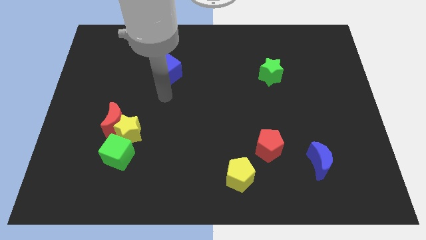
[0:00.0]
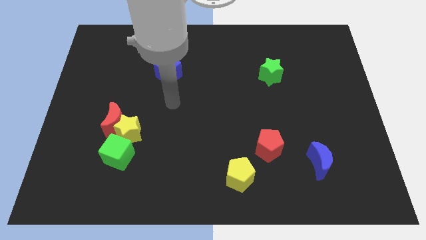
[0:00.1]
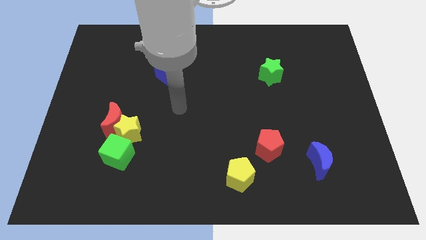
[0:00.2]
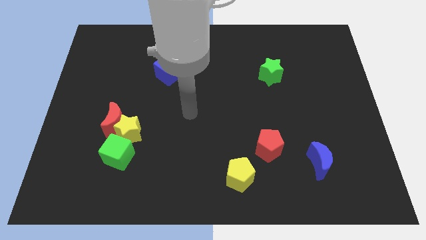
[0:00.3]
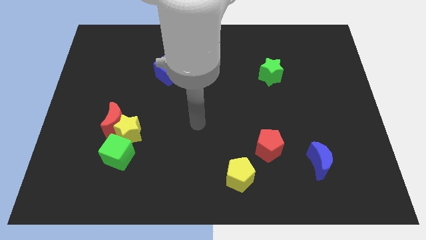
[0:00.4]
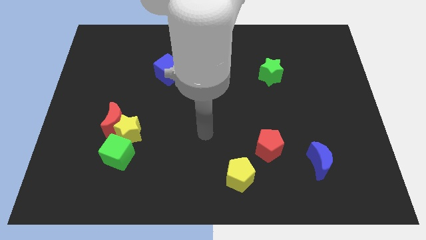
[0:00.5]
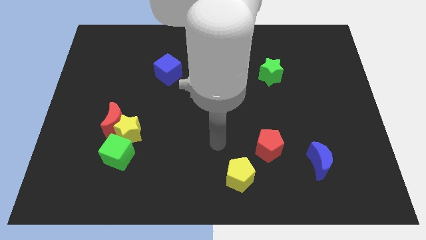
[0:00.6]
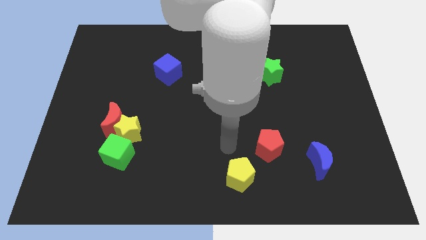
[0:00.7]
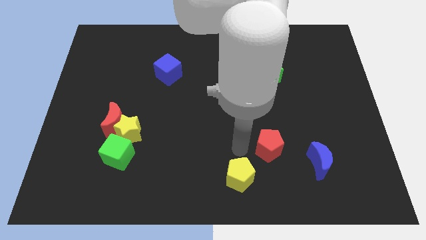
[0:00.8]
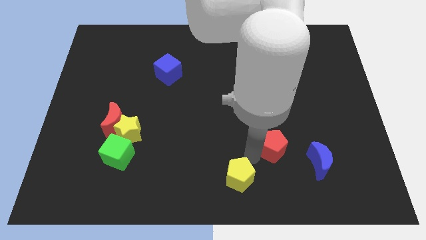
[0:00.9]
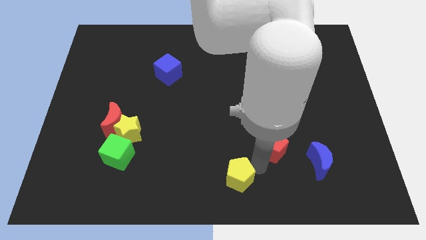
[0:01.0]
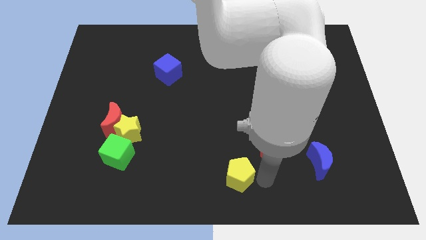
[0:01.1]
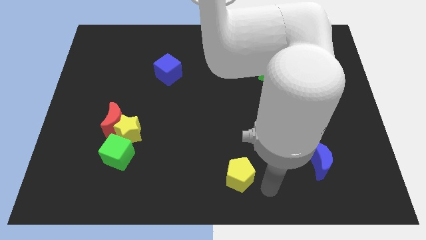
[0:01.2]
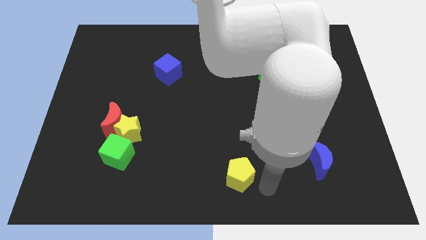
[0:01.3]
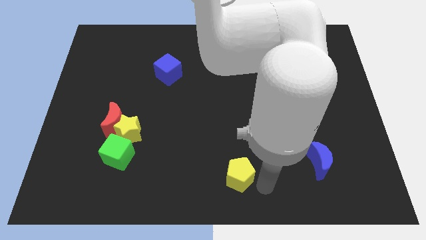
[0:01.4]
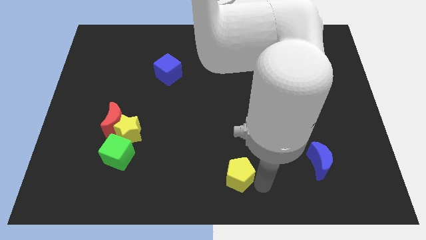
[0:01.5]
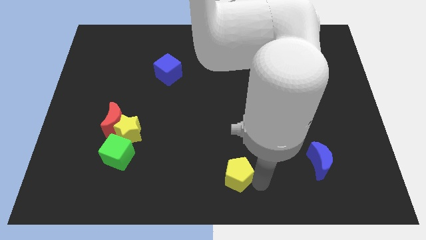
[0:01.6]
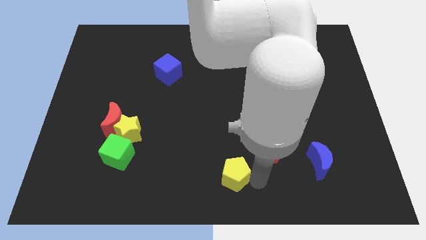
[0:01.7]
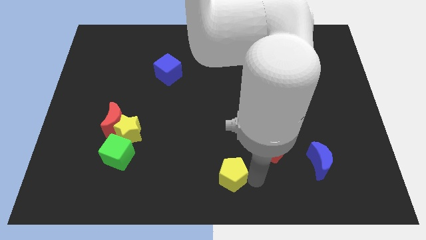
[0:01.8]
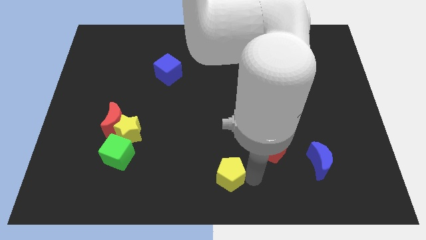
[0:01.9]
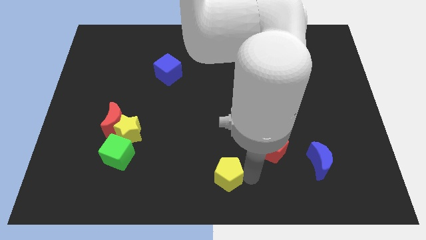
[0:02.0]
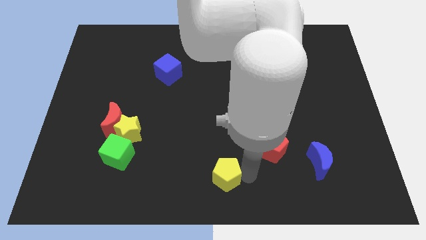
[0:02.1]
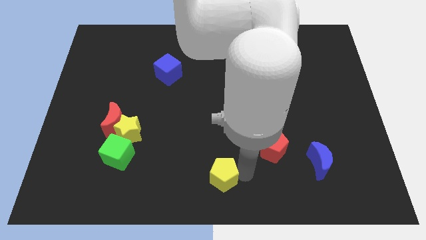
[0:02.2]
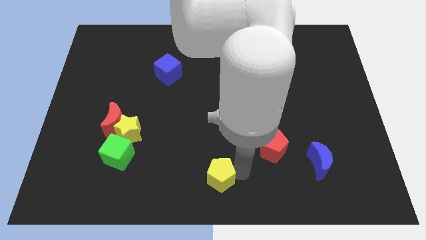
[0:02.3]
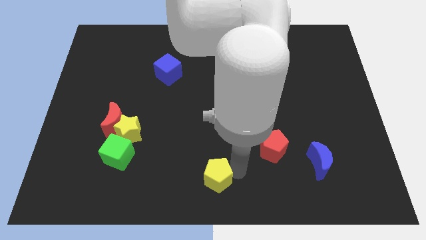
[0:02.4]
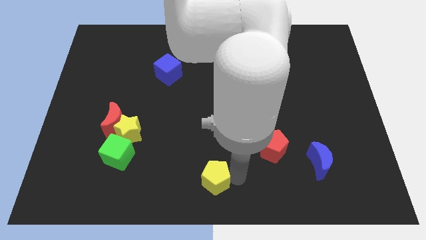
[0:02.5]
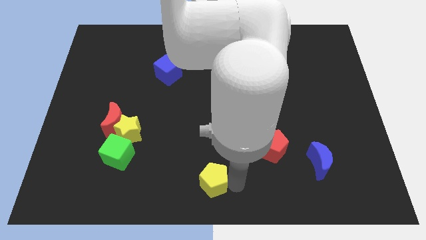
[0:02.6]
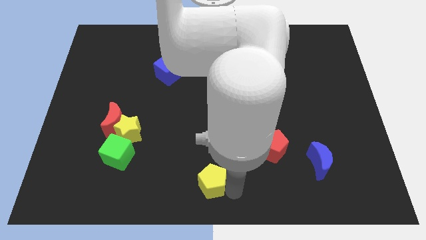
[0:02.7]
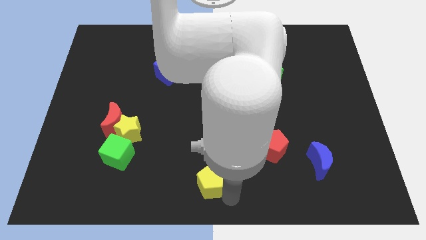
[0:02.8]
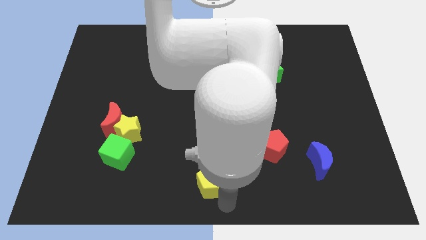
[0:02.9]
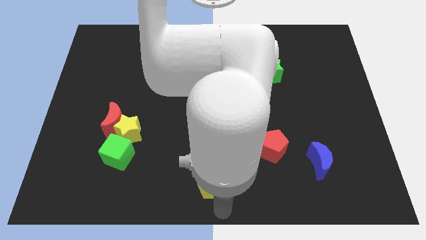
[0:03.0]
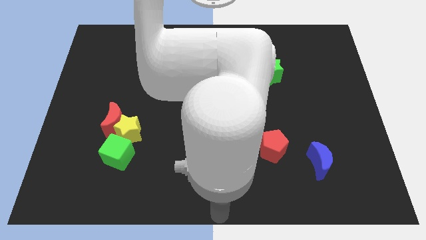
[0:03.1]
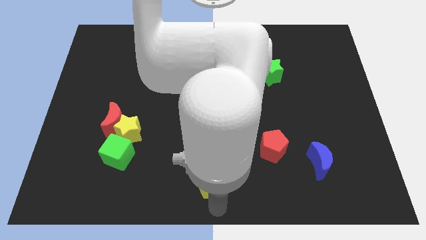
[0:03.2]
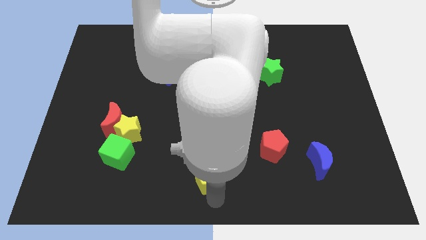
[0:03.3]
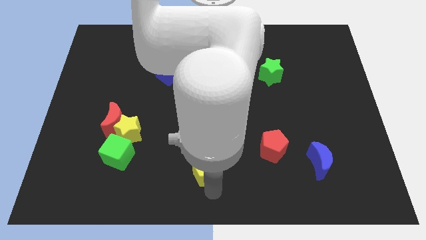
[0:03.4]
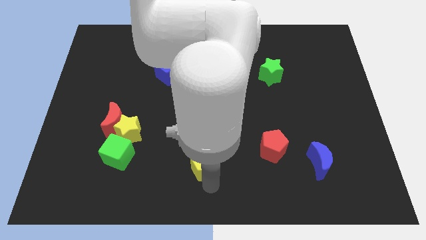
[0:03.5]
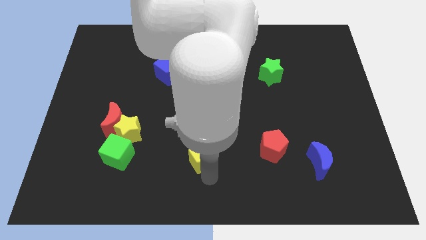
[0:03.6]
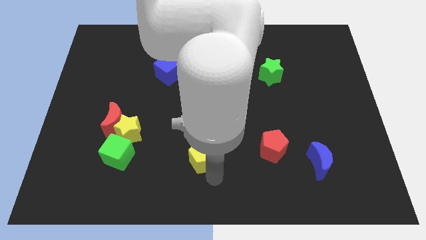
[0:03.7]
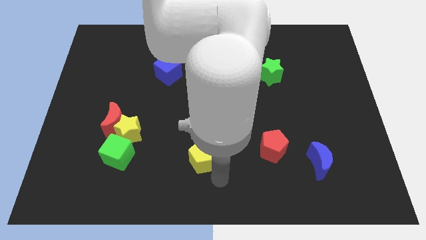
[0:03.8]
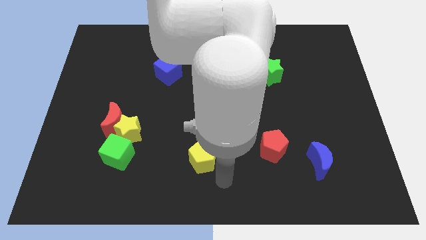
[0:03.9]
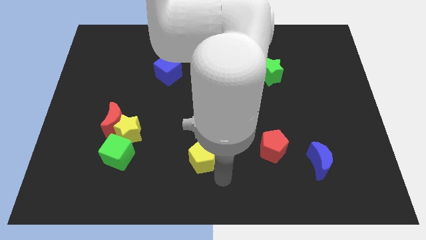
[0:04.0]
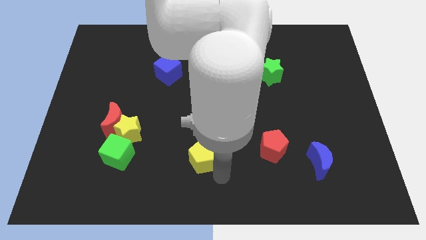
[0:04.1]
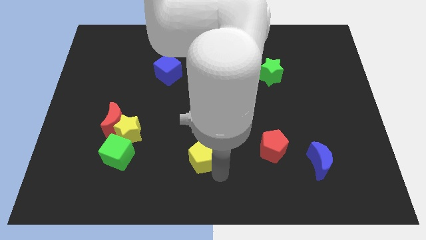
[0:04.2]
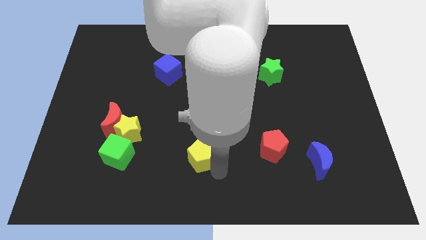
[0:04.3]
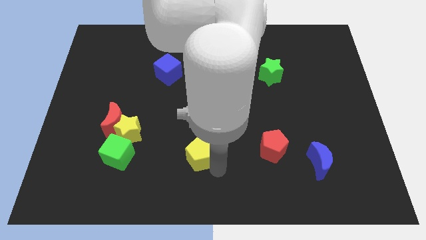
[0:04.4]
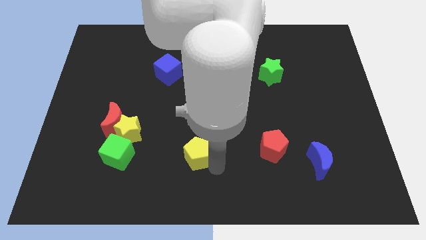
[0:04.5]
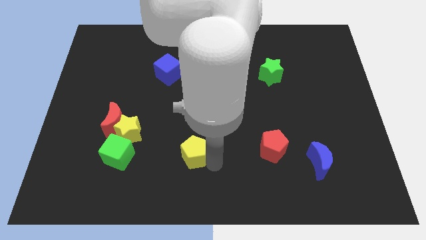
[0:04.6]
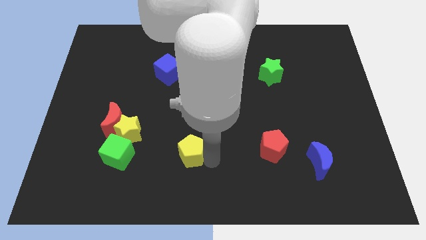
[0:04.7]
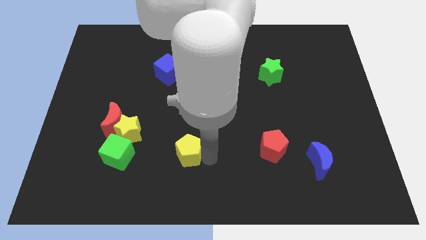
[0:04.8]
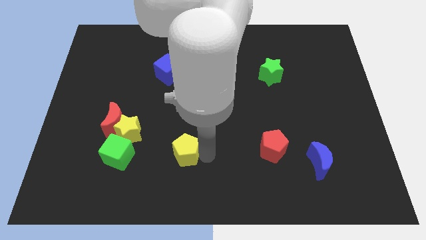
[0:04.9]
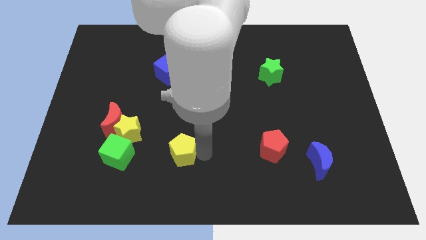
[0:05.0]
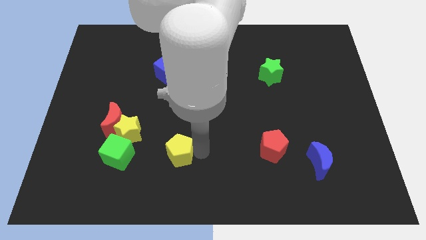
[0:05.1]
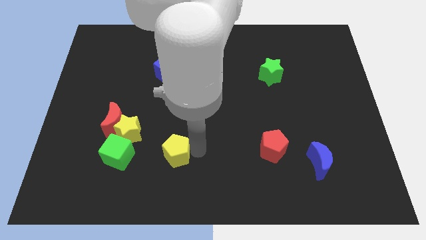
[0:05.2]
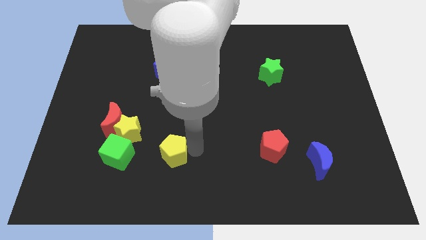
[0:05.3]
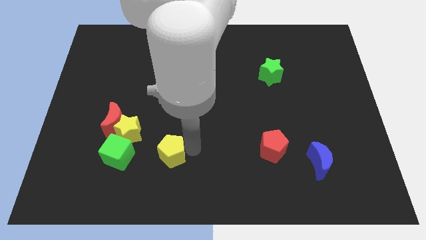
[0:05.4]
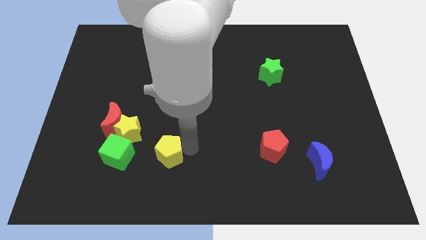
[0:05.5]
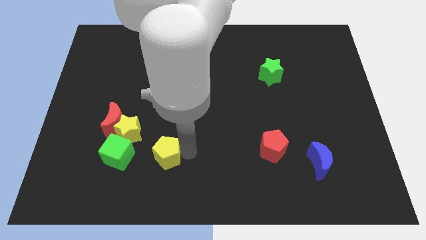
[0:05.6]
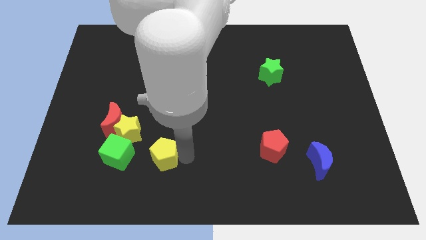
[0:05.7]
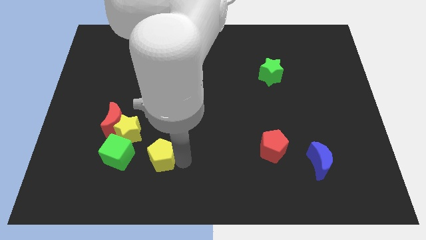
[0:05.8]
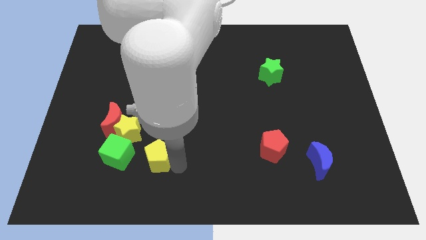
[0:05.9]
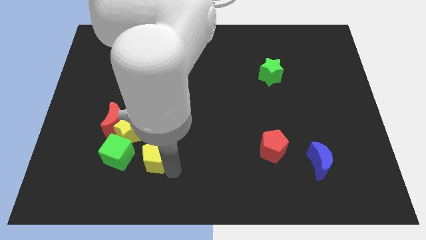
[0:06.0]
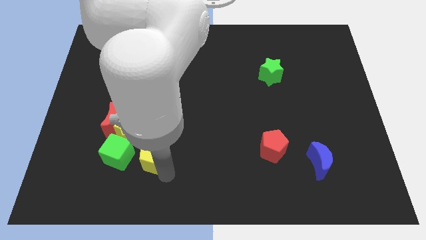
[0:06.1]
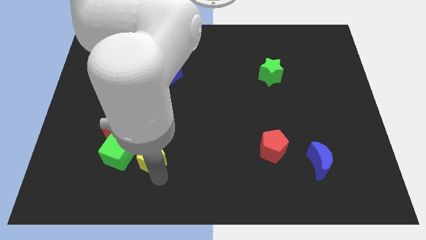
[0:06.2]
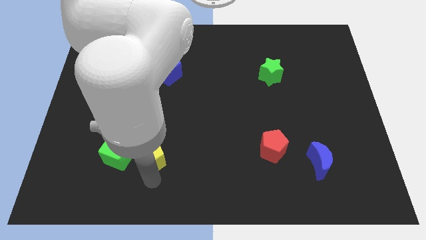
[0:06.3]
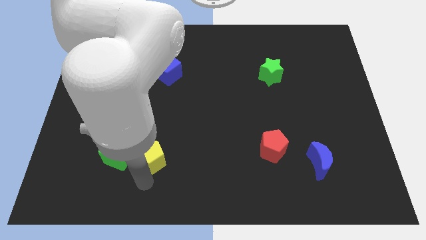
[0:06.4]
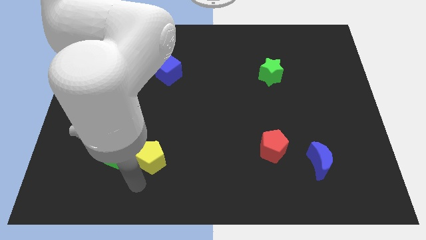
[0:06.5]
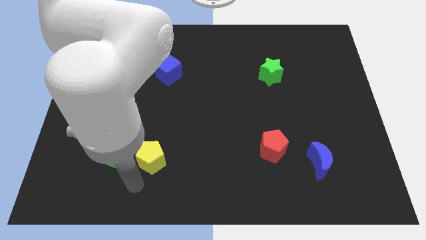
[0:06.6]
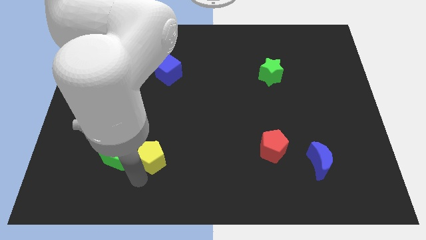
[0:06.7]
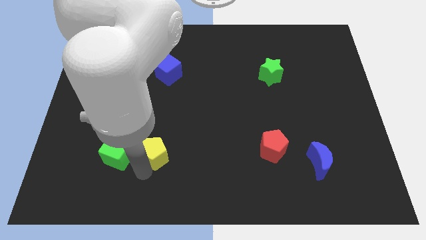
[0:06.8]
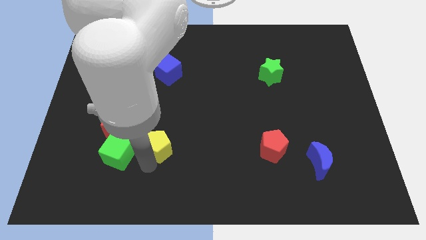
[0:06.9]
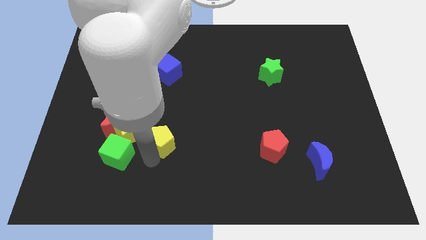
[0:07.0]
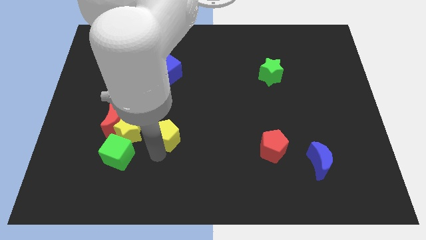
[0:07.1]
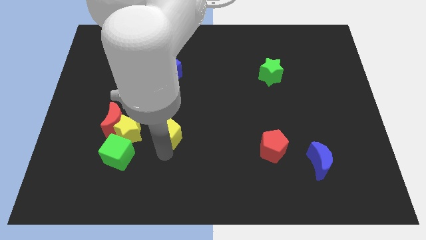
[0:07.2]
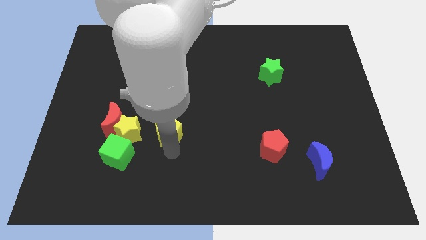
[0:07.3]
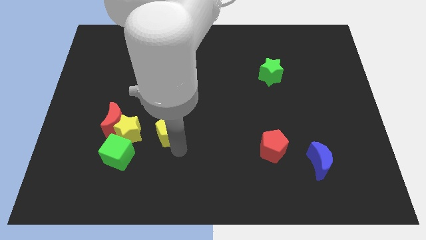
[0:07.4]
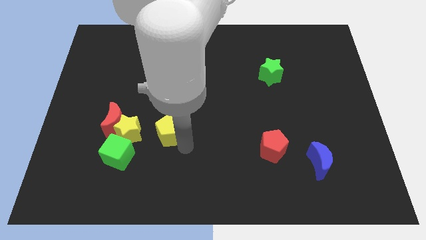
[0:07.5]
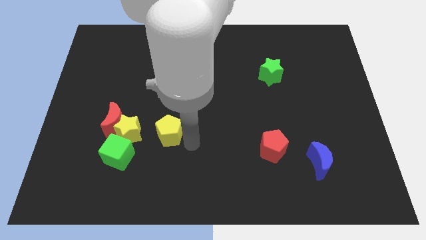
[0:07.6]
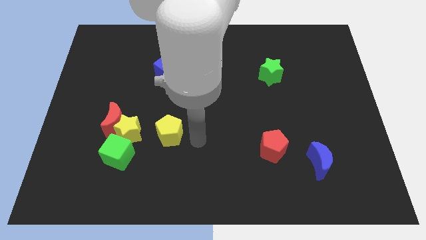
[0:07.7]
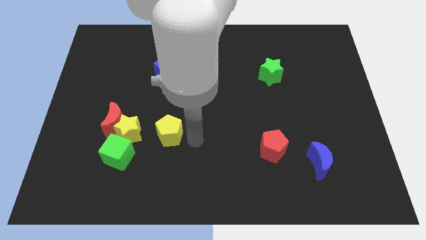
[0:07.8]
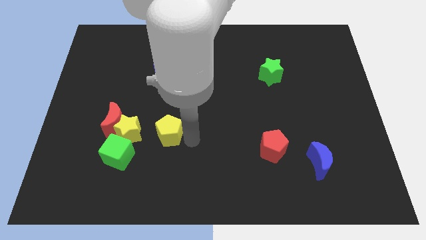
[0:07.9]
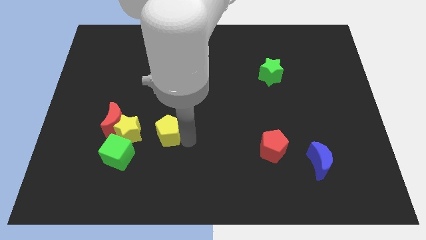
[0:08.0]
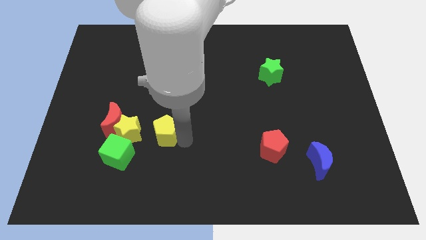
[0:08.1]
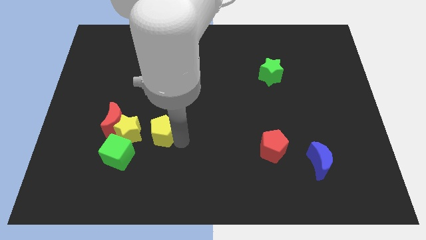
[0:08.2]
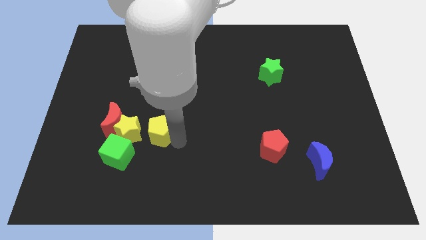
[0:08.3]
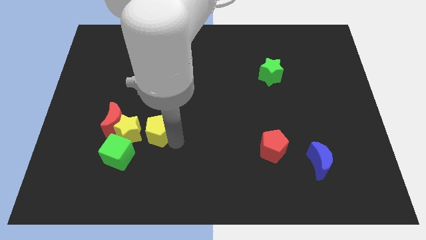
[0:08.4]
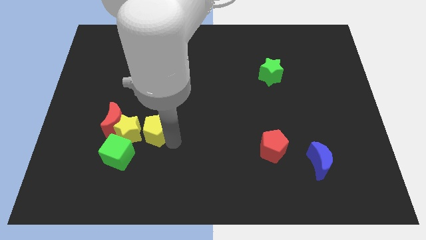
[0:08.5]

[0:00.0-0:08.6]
put the yellow pentagon to the yellow star
